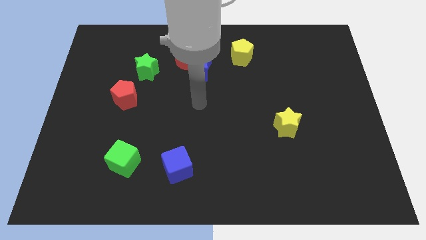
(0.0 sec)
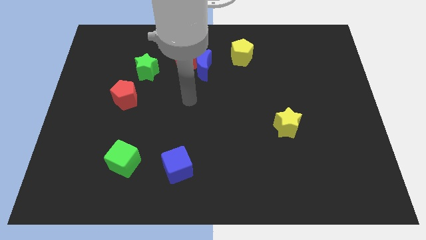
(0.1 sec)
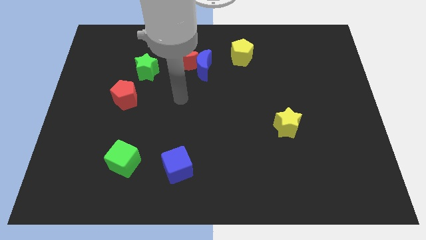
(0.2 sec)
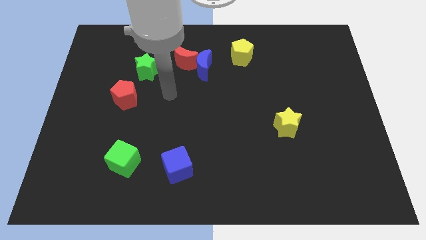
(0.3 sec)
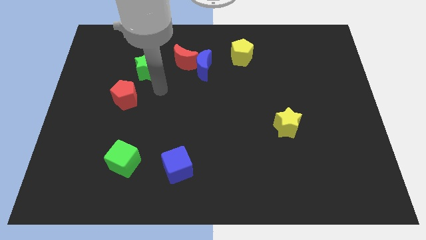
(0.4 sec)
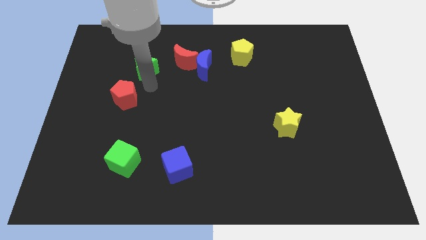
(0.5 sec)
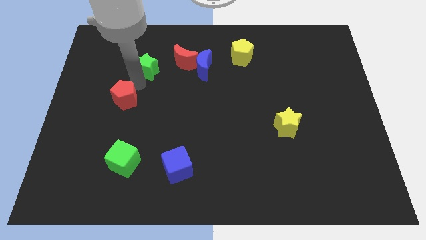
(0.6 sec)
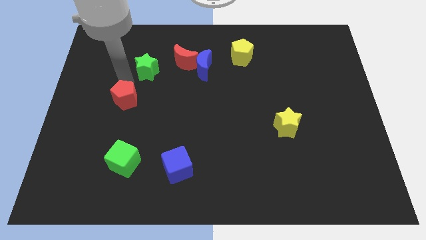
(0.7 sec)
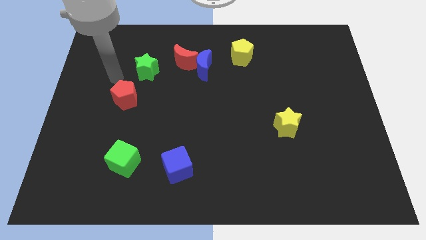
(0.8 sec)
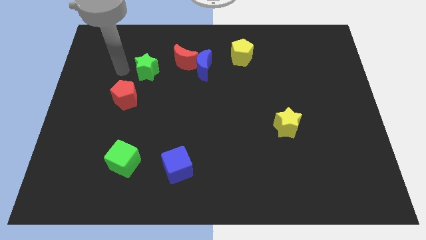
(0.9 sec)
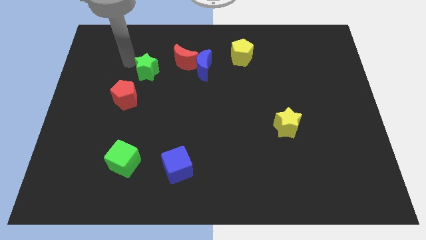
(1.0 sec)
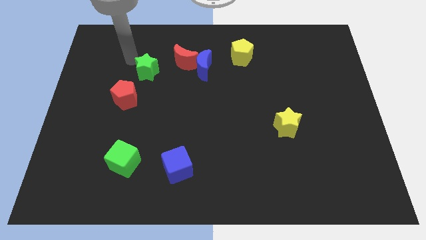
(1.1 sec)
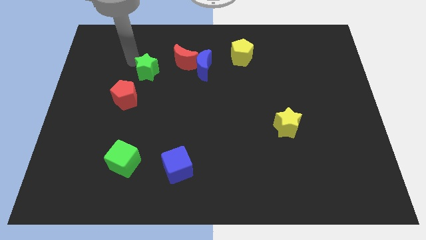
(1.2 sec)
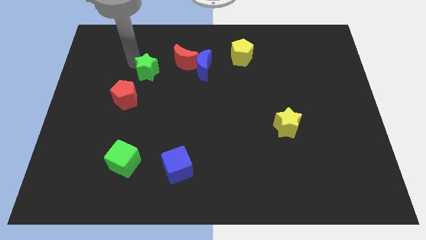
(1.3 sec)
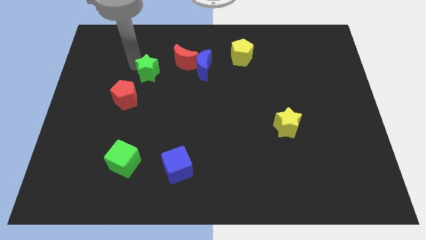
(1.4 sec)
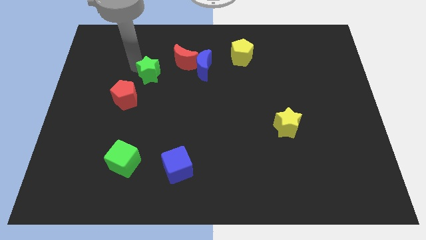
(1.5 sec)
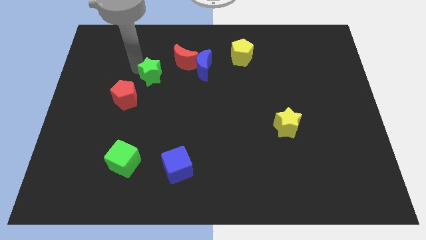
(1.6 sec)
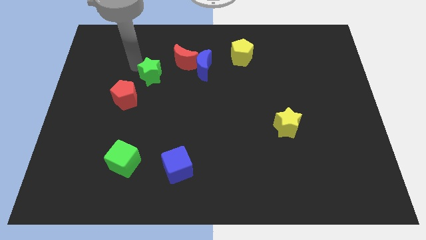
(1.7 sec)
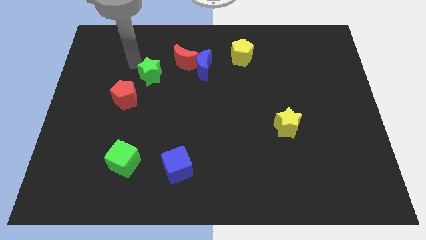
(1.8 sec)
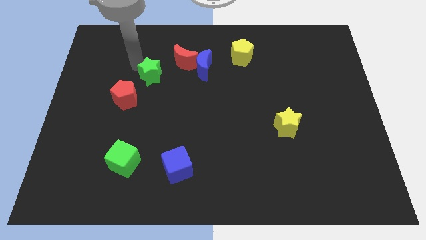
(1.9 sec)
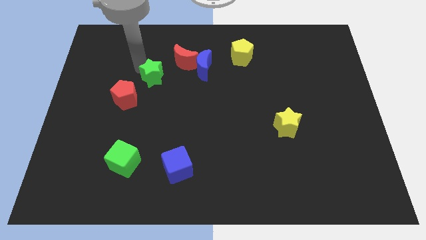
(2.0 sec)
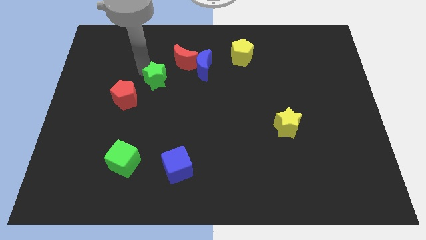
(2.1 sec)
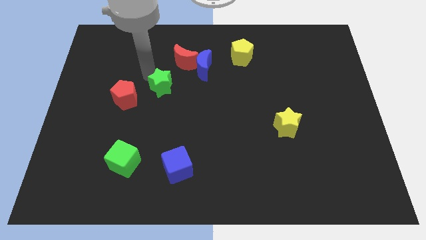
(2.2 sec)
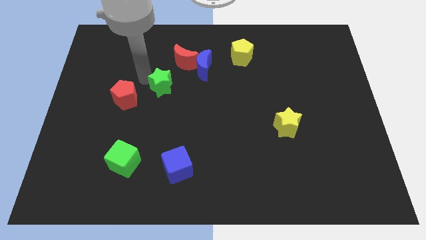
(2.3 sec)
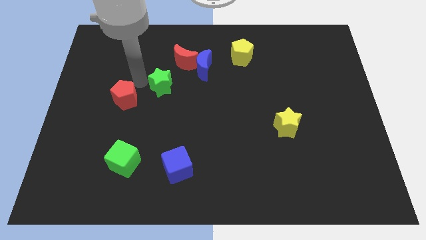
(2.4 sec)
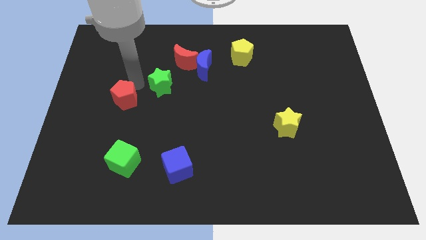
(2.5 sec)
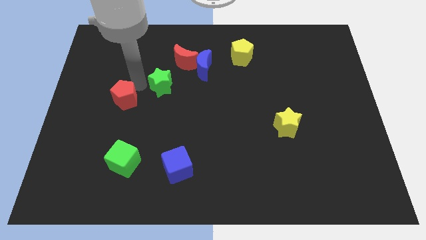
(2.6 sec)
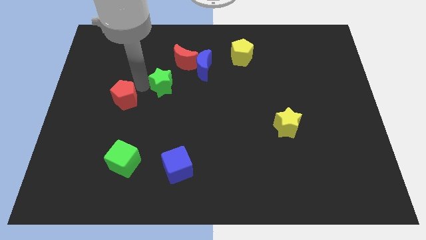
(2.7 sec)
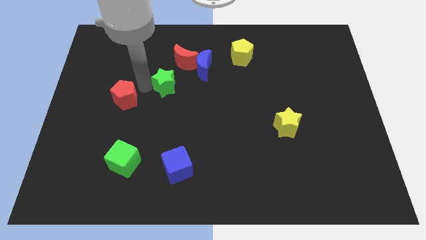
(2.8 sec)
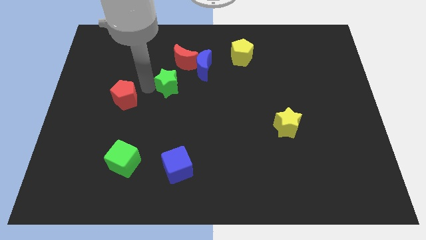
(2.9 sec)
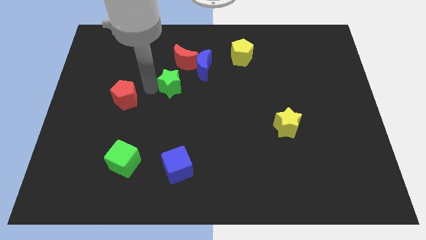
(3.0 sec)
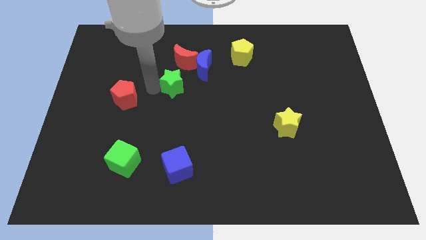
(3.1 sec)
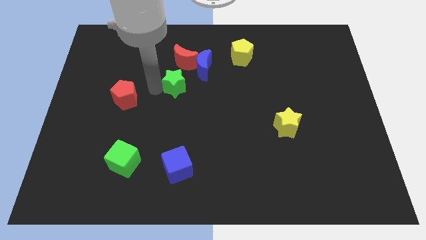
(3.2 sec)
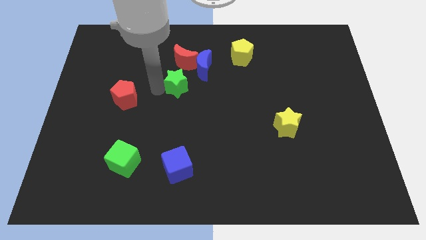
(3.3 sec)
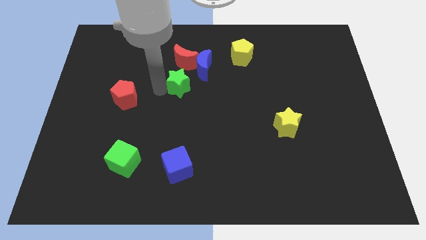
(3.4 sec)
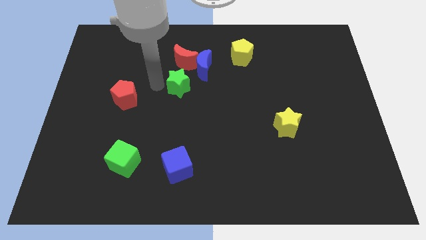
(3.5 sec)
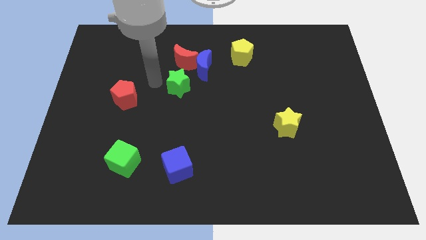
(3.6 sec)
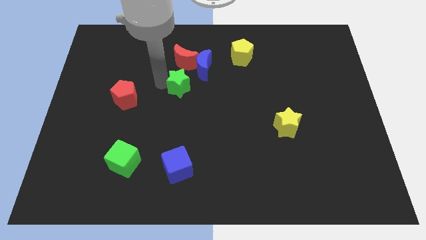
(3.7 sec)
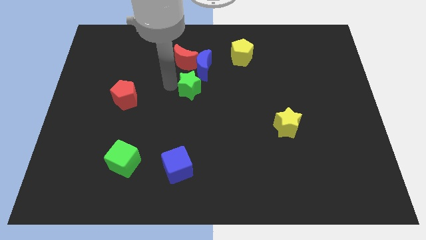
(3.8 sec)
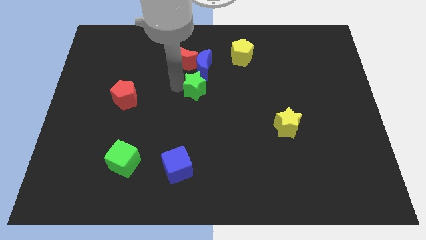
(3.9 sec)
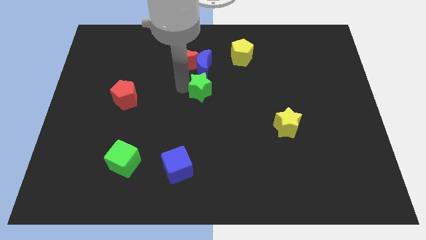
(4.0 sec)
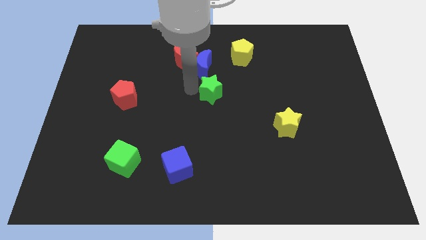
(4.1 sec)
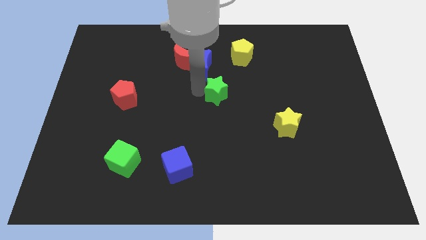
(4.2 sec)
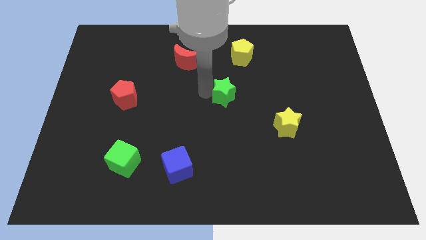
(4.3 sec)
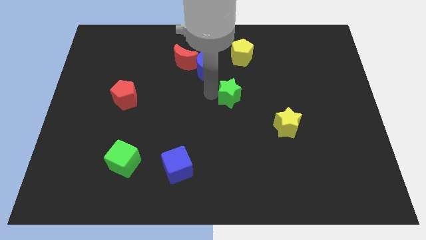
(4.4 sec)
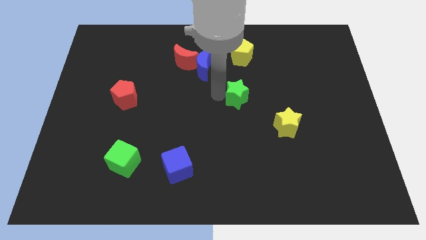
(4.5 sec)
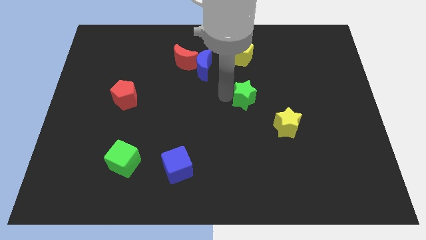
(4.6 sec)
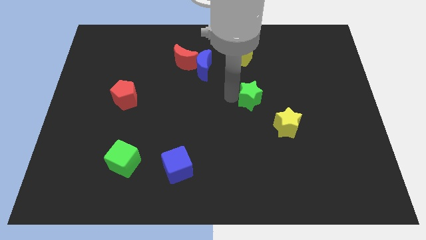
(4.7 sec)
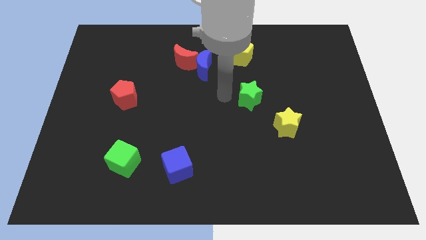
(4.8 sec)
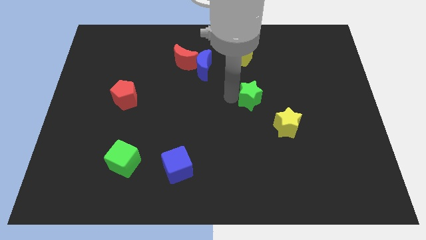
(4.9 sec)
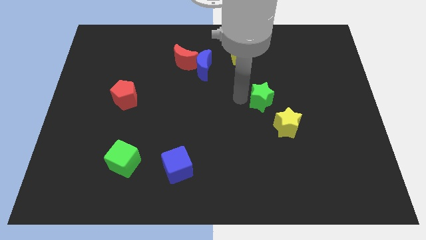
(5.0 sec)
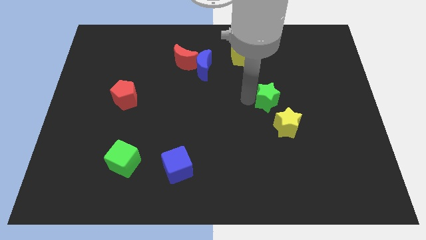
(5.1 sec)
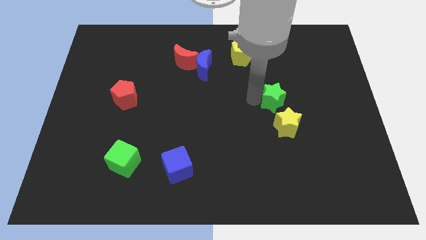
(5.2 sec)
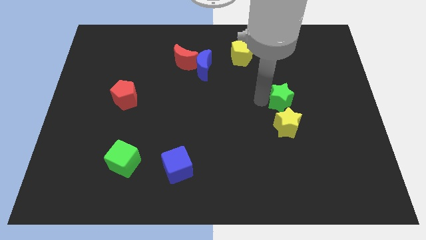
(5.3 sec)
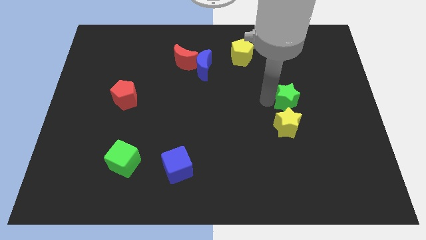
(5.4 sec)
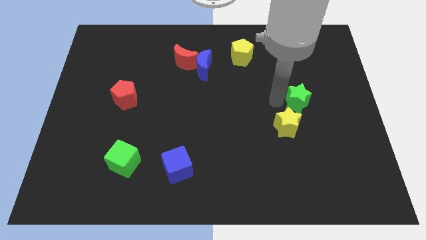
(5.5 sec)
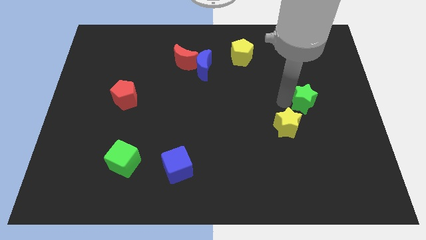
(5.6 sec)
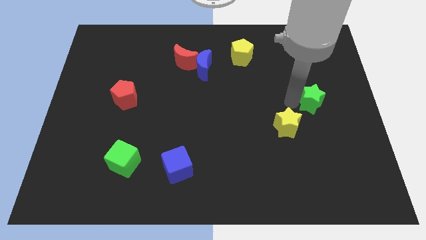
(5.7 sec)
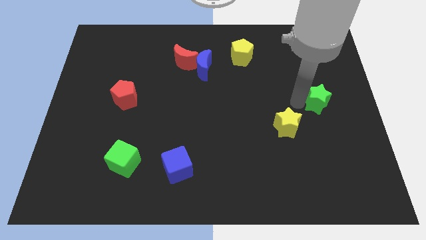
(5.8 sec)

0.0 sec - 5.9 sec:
slide the green star to the center right
